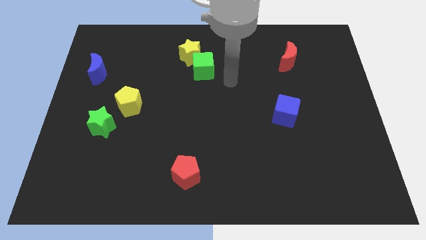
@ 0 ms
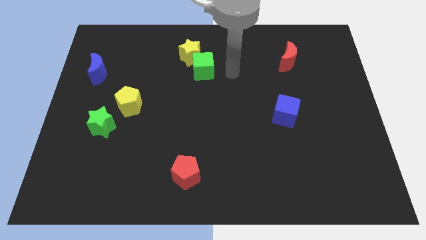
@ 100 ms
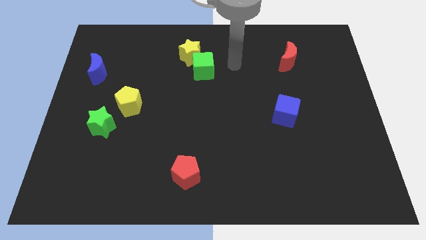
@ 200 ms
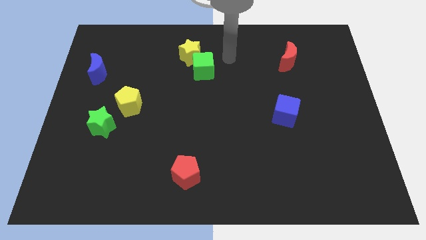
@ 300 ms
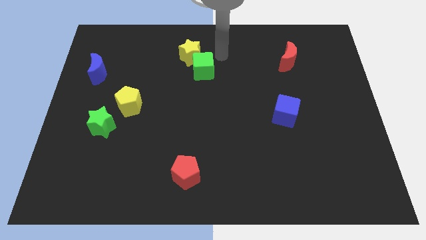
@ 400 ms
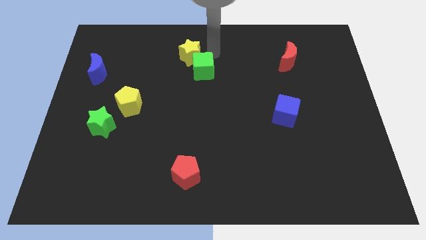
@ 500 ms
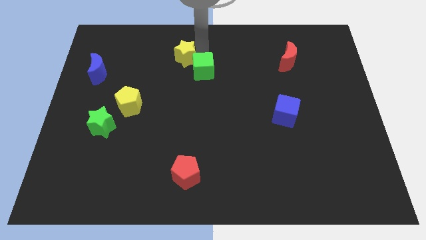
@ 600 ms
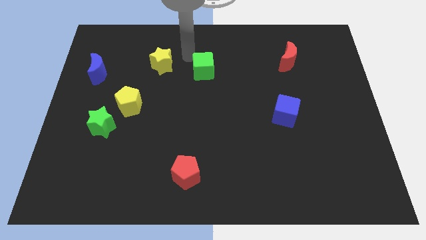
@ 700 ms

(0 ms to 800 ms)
pull the green cube apart from the yellow star

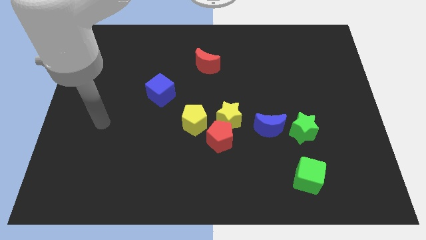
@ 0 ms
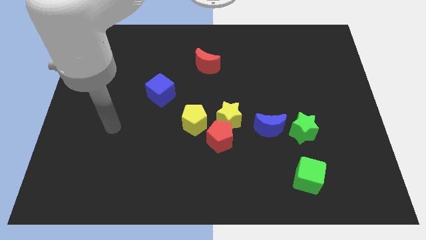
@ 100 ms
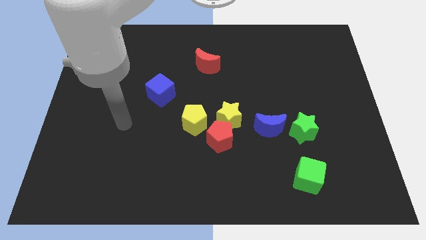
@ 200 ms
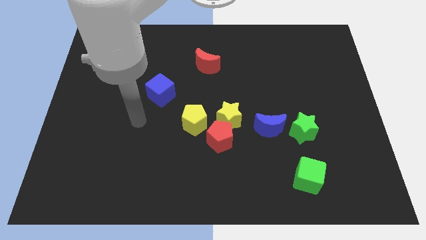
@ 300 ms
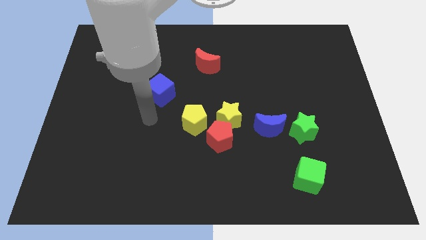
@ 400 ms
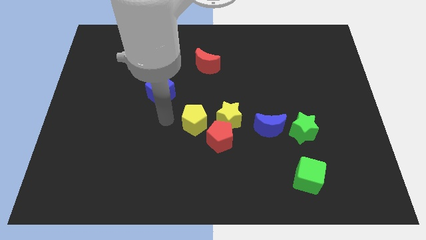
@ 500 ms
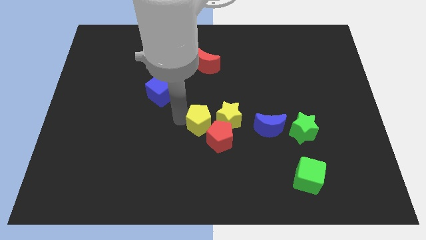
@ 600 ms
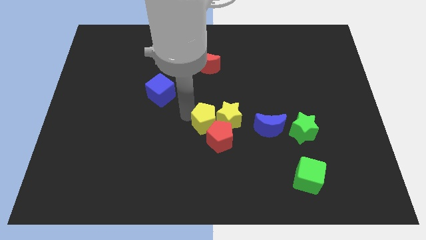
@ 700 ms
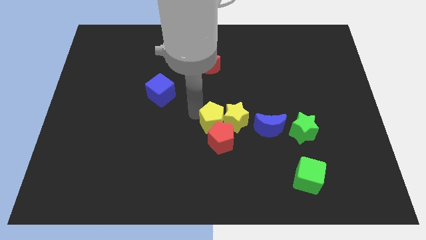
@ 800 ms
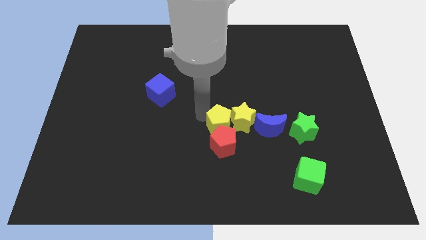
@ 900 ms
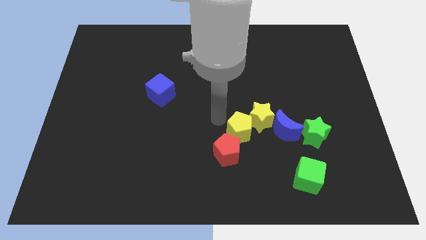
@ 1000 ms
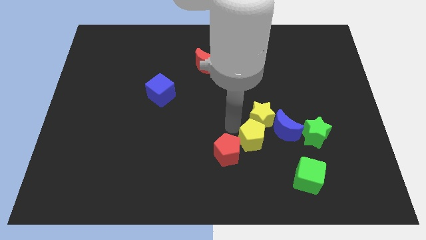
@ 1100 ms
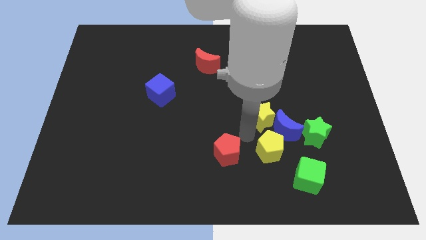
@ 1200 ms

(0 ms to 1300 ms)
move the red pentagon away from the yellow star and yellow pentagon

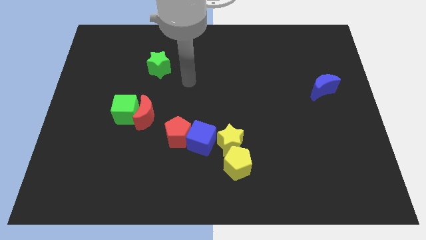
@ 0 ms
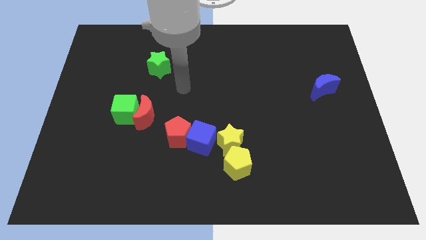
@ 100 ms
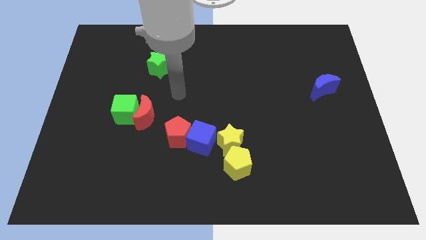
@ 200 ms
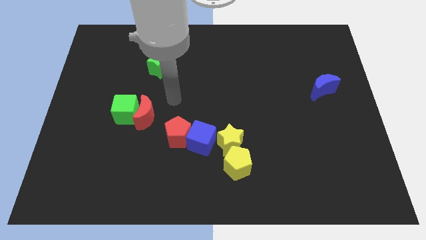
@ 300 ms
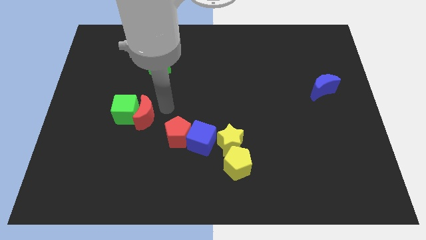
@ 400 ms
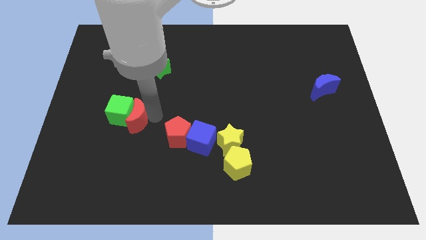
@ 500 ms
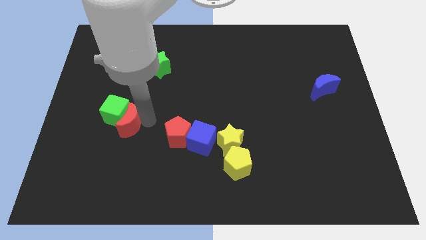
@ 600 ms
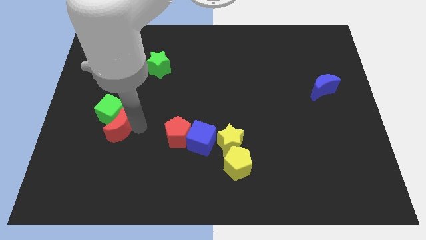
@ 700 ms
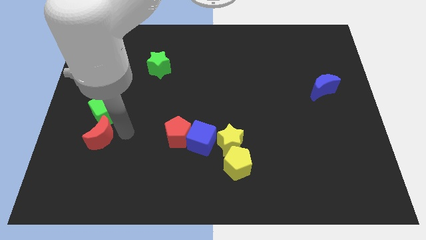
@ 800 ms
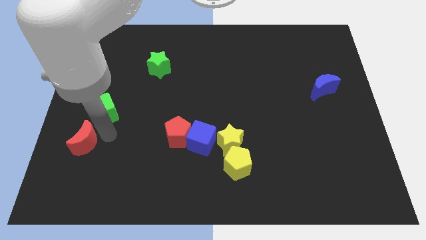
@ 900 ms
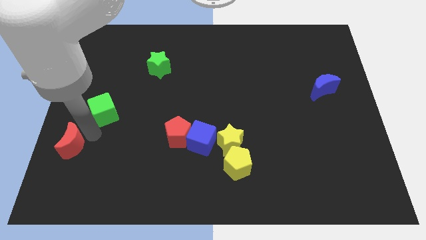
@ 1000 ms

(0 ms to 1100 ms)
separate the green cube from the red moon

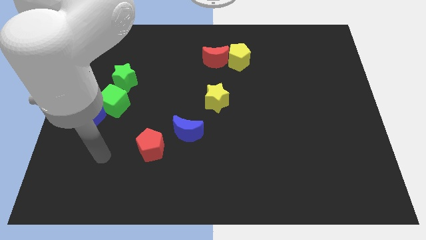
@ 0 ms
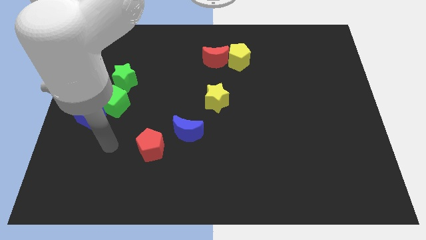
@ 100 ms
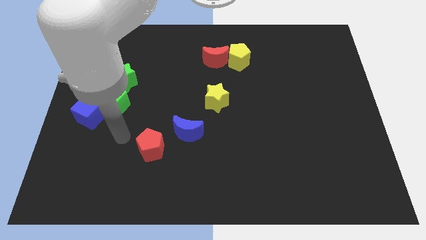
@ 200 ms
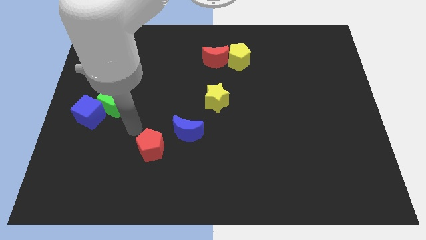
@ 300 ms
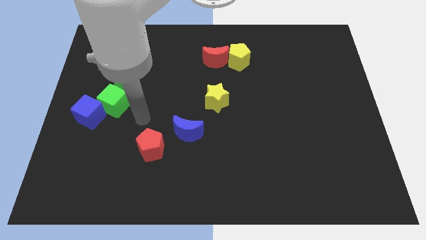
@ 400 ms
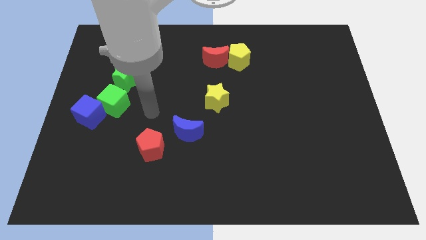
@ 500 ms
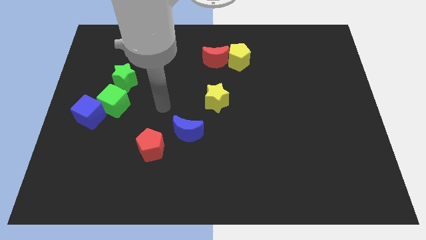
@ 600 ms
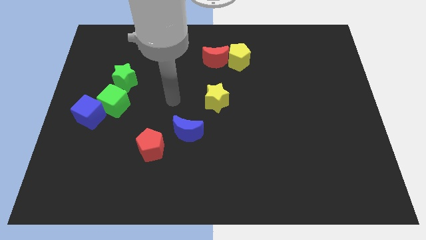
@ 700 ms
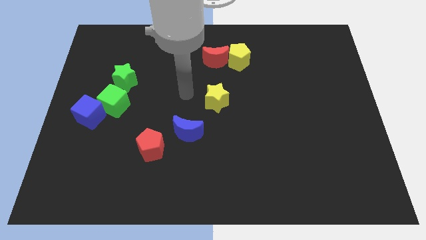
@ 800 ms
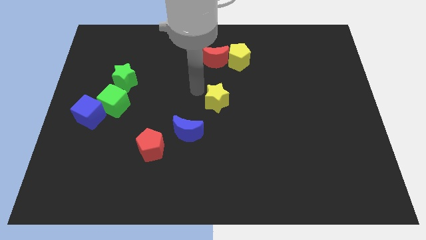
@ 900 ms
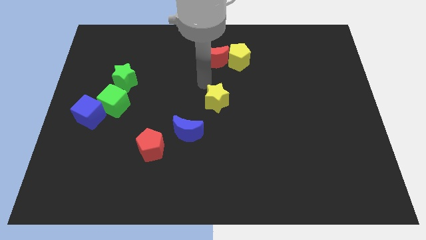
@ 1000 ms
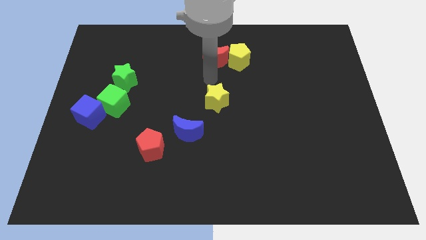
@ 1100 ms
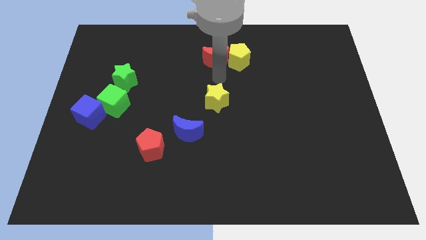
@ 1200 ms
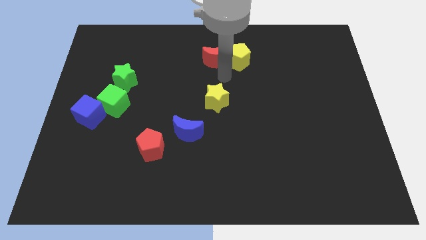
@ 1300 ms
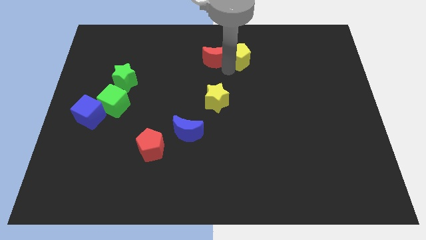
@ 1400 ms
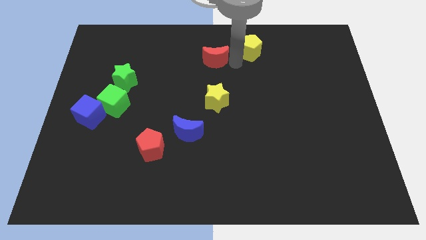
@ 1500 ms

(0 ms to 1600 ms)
separate the red moon from the yellow pentagon

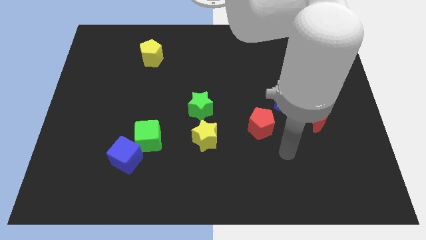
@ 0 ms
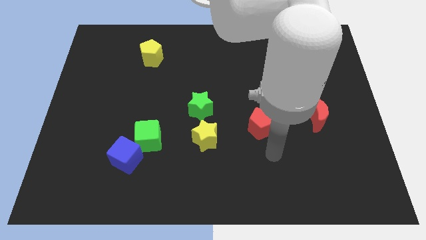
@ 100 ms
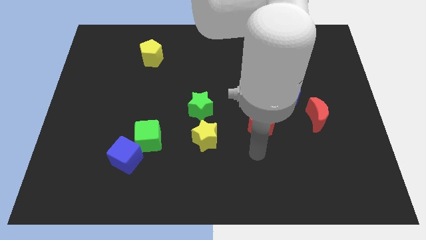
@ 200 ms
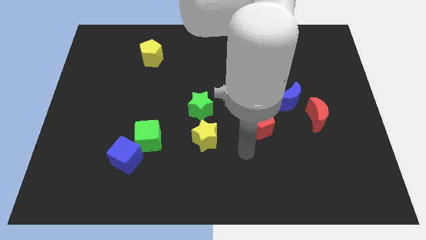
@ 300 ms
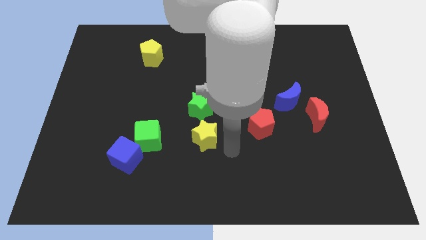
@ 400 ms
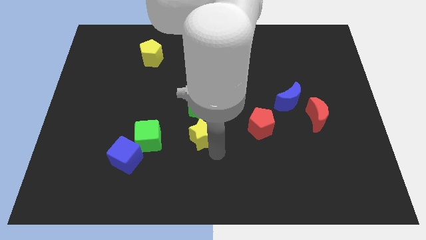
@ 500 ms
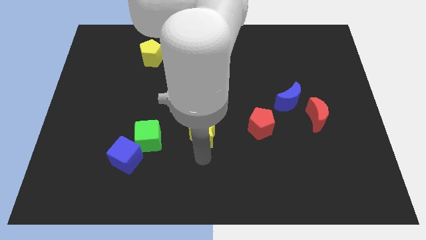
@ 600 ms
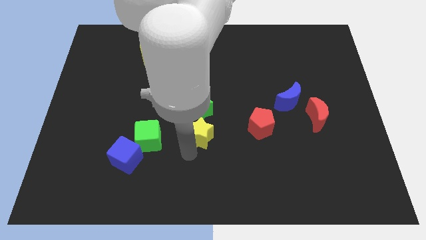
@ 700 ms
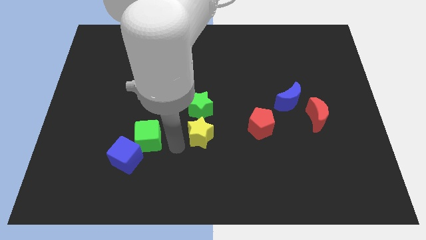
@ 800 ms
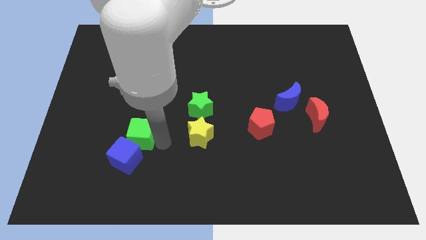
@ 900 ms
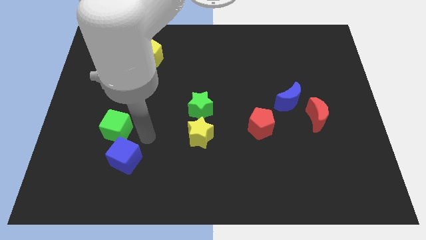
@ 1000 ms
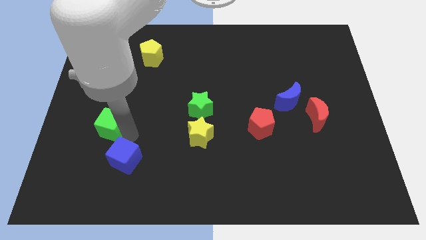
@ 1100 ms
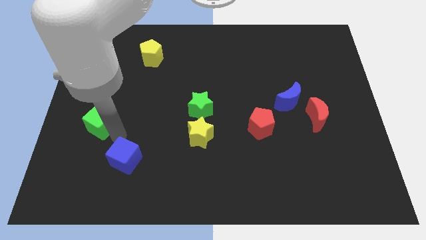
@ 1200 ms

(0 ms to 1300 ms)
pull the blue cube apart from the green cube

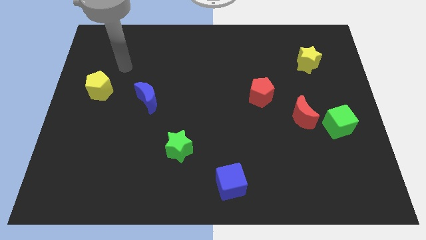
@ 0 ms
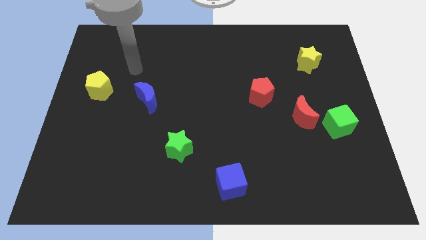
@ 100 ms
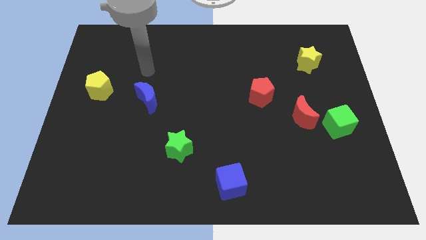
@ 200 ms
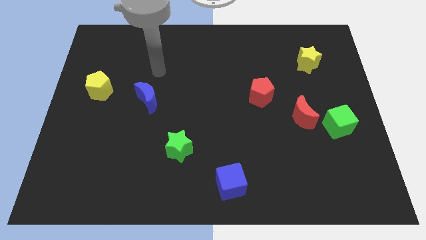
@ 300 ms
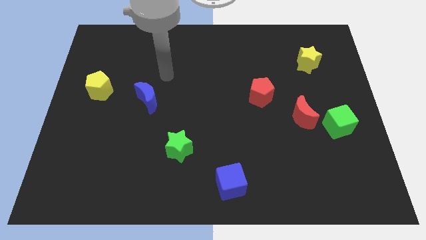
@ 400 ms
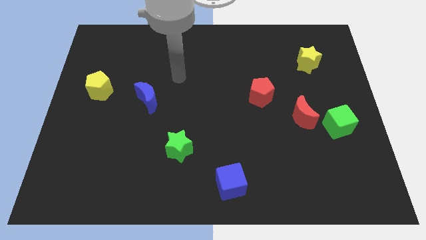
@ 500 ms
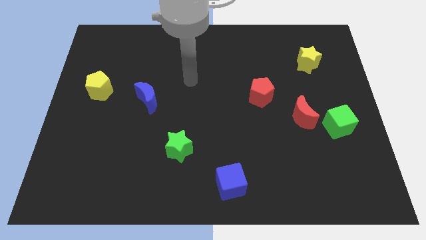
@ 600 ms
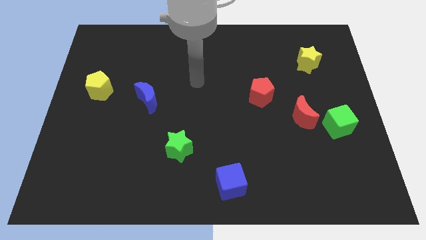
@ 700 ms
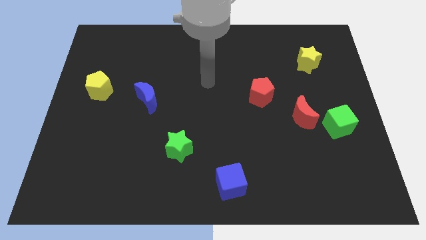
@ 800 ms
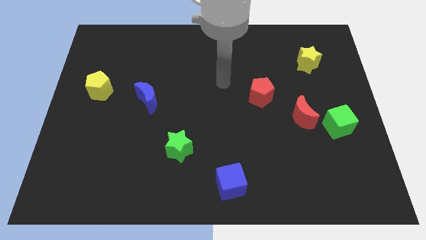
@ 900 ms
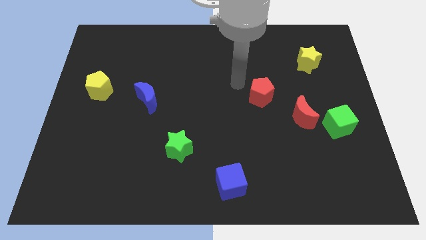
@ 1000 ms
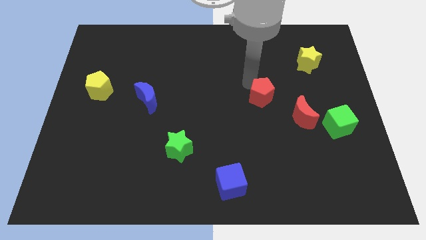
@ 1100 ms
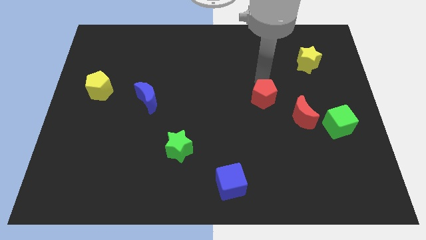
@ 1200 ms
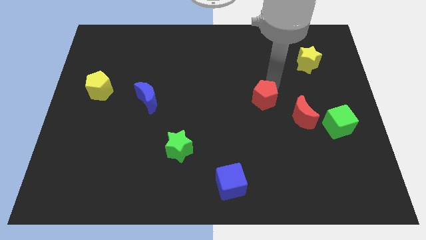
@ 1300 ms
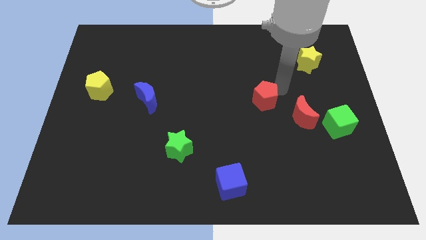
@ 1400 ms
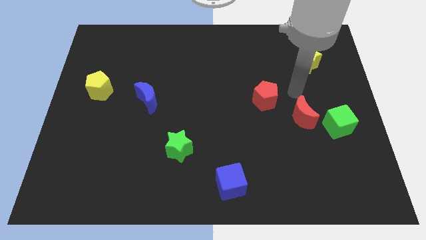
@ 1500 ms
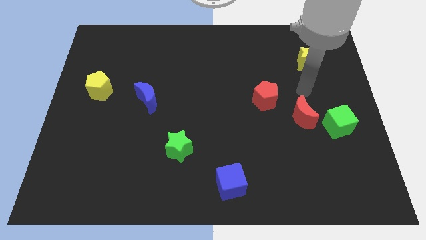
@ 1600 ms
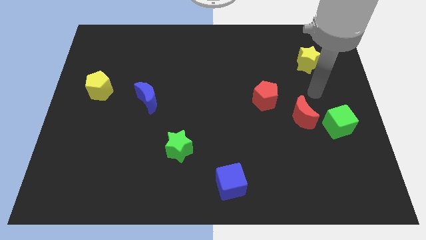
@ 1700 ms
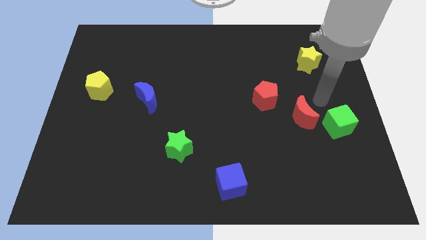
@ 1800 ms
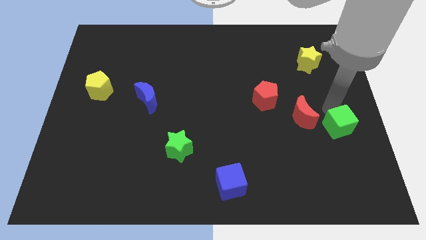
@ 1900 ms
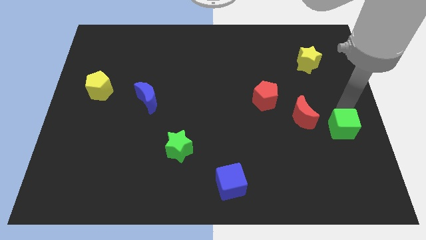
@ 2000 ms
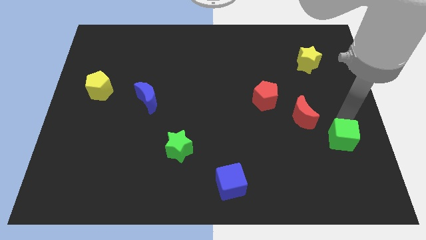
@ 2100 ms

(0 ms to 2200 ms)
move the red moon away from the green cube

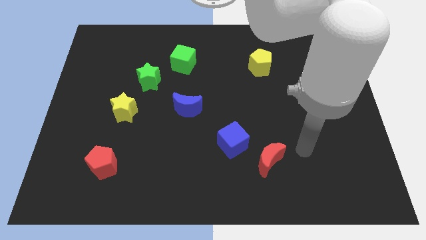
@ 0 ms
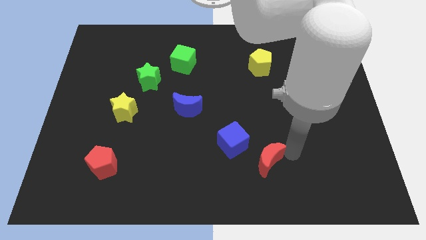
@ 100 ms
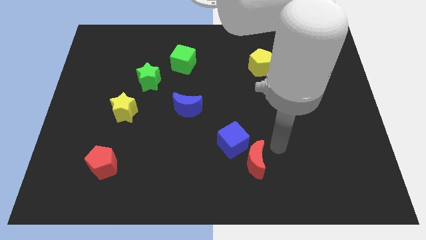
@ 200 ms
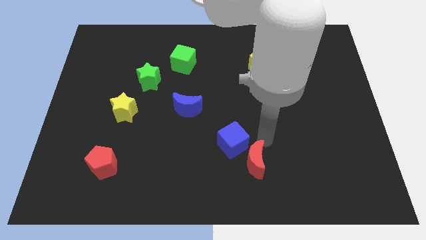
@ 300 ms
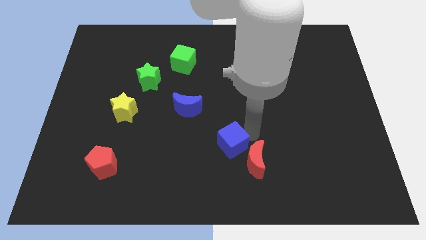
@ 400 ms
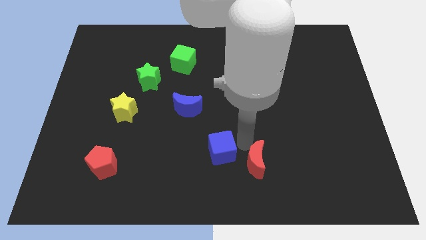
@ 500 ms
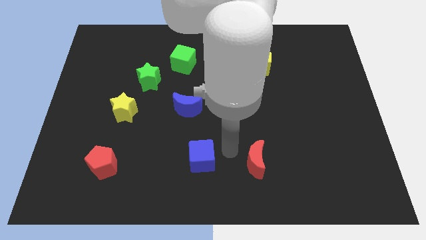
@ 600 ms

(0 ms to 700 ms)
pull the red moon apart from the blue cube

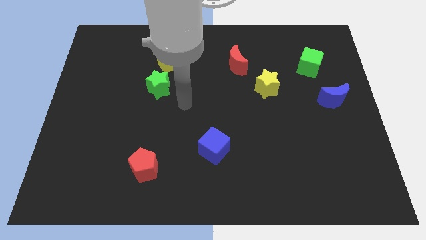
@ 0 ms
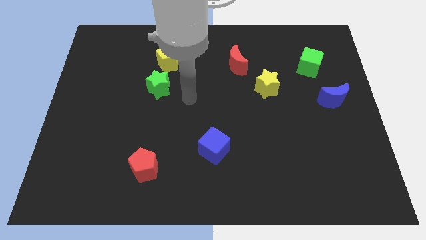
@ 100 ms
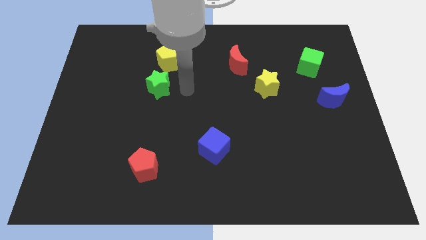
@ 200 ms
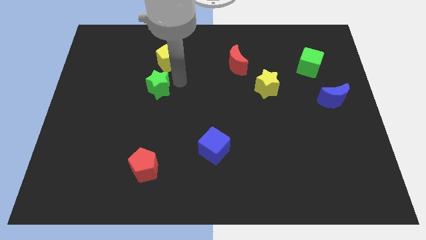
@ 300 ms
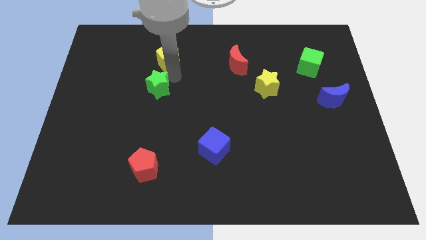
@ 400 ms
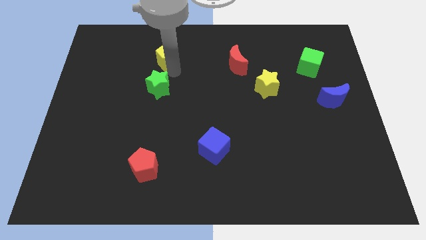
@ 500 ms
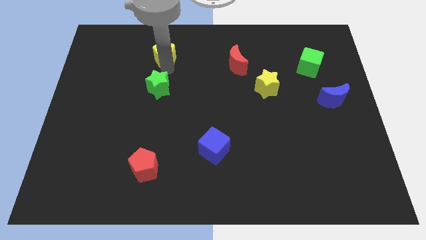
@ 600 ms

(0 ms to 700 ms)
pull the green star apart from the yellow pentagon
